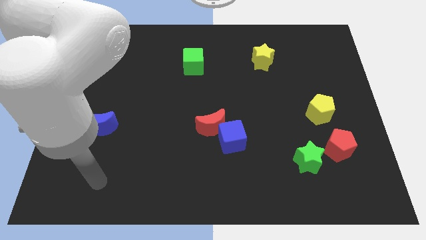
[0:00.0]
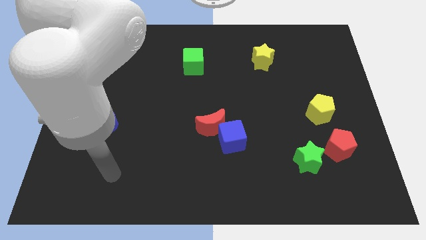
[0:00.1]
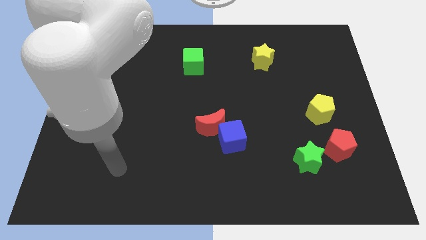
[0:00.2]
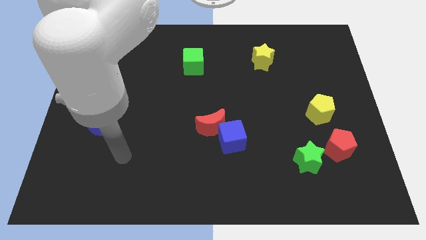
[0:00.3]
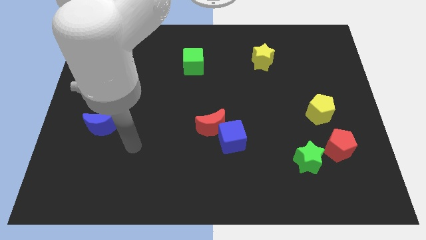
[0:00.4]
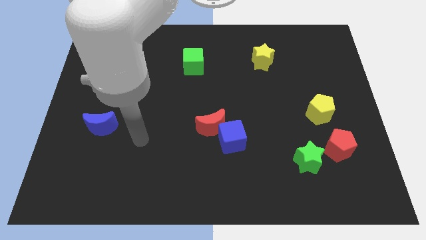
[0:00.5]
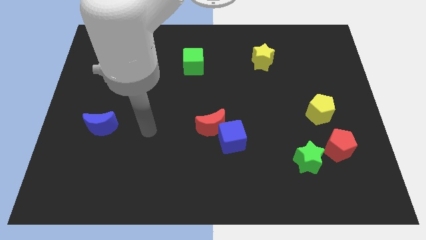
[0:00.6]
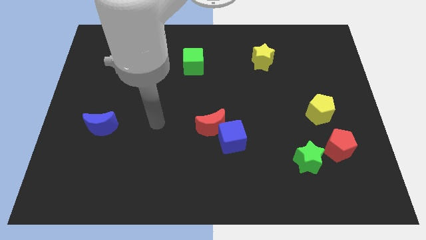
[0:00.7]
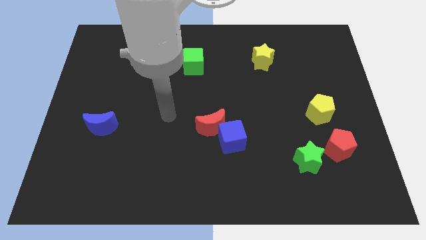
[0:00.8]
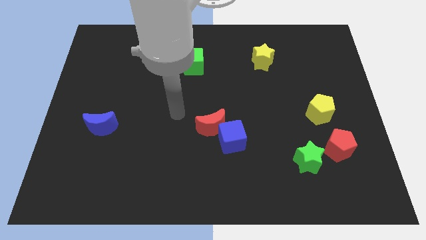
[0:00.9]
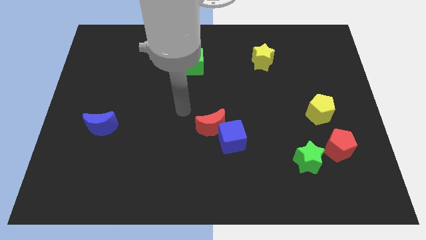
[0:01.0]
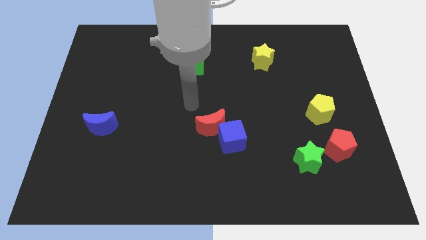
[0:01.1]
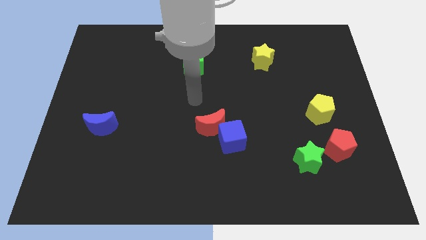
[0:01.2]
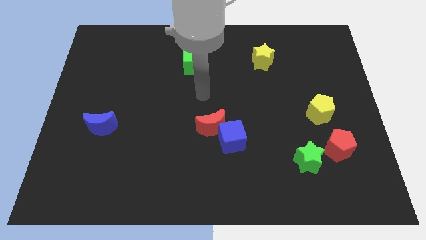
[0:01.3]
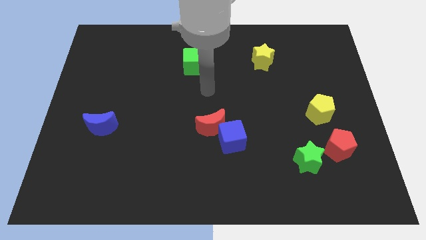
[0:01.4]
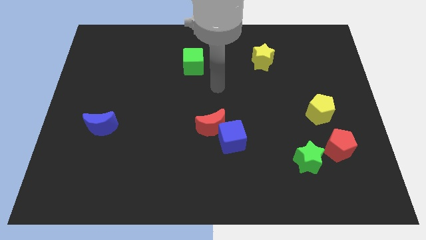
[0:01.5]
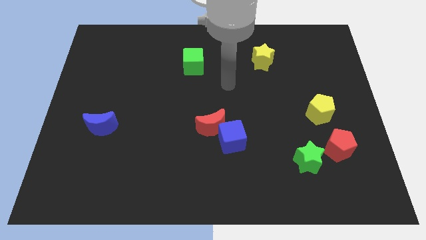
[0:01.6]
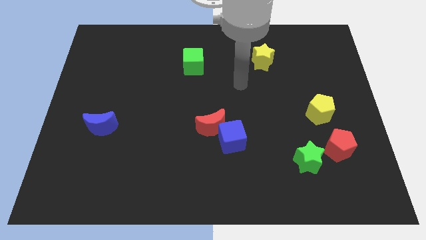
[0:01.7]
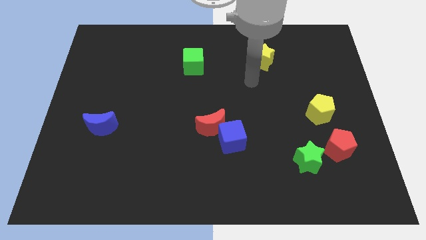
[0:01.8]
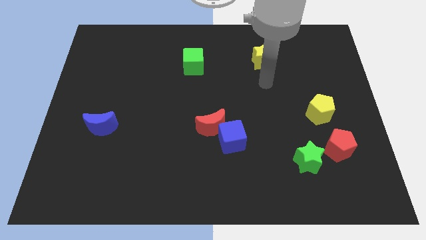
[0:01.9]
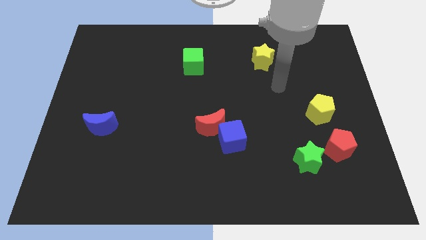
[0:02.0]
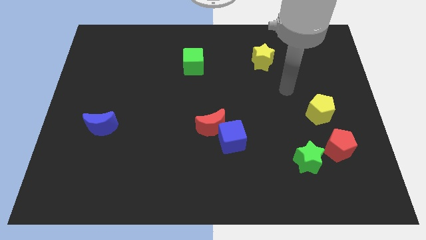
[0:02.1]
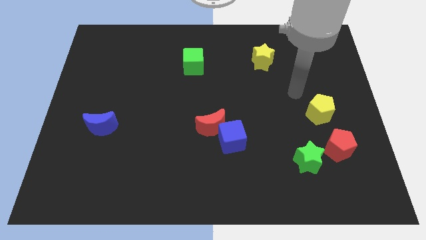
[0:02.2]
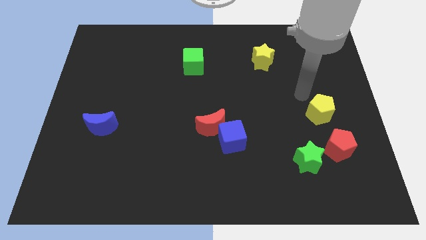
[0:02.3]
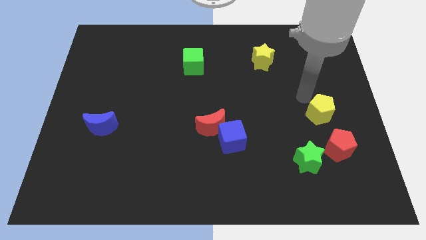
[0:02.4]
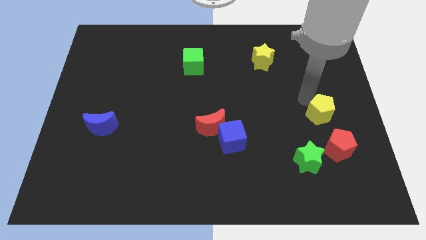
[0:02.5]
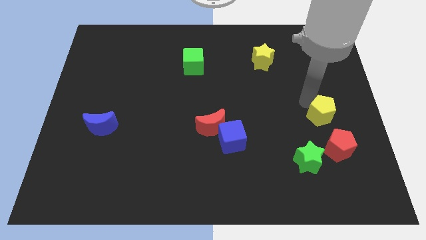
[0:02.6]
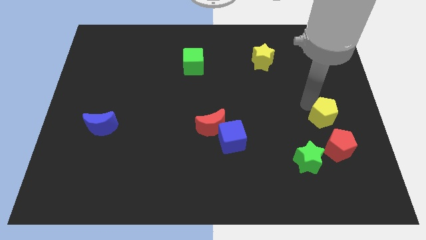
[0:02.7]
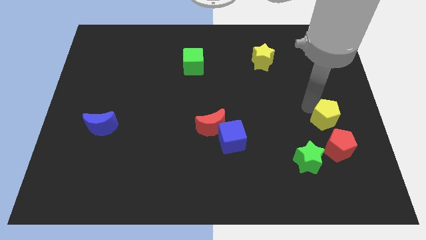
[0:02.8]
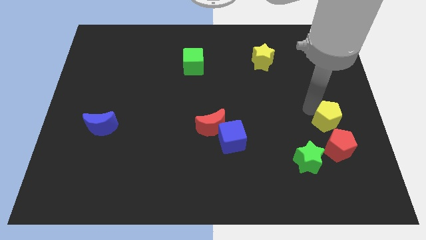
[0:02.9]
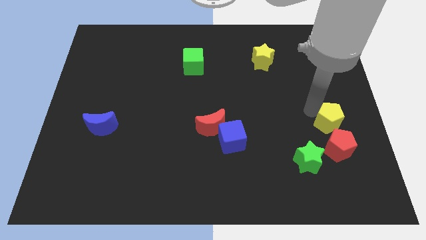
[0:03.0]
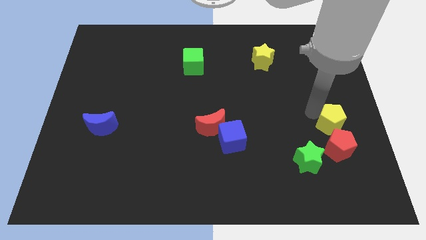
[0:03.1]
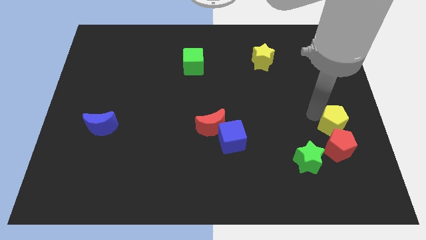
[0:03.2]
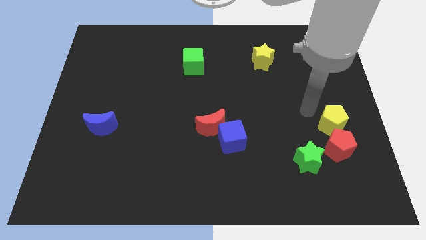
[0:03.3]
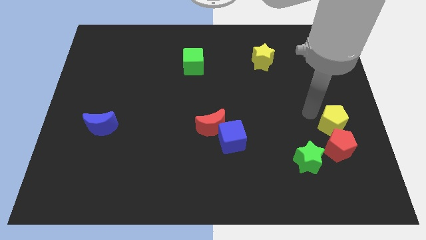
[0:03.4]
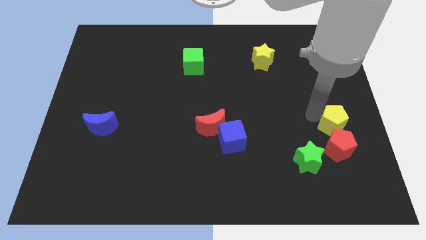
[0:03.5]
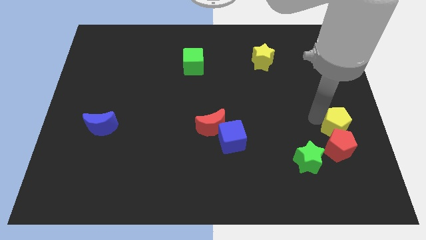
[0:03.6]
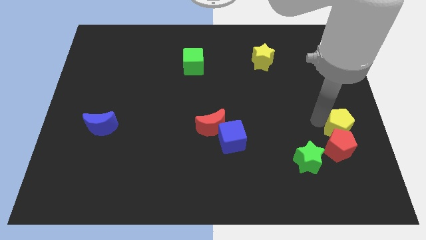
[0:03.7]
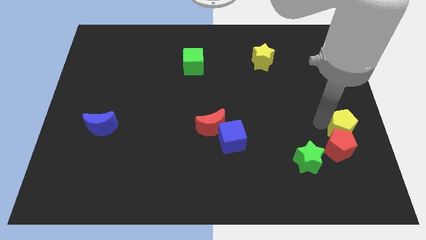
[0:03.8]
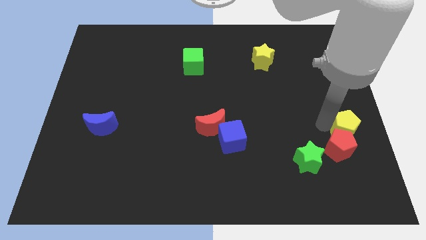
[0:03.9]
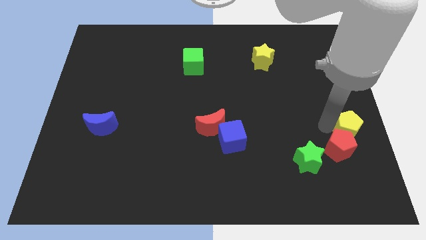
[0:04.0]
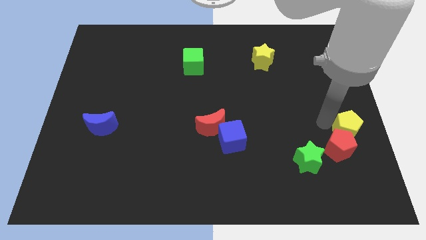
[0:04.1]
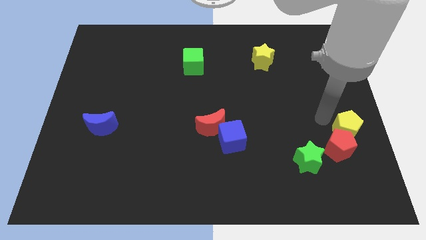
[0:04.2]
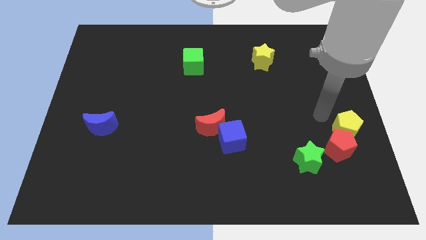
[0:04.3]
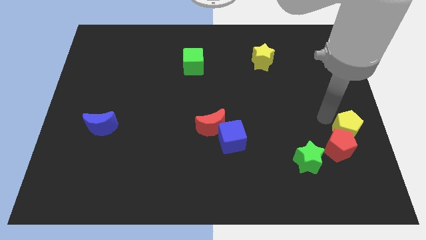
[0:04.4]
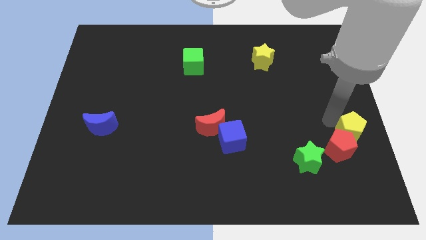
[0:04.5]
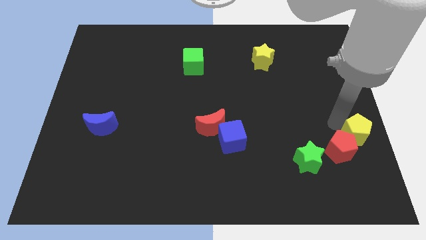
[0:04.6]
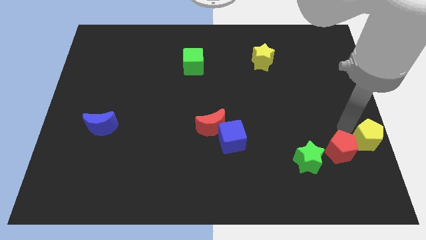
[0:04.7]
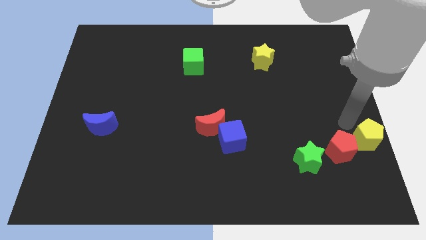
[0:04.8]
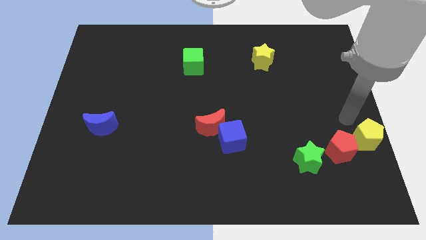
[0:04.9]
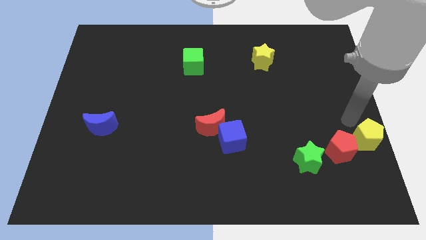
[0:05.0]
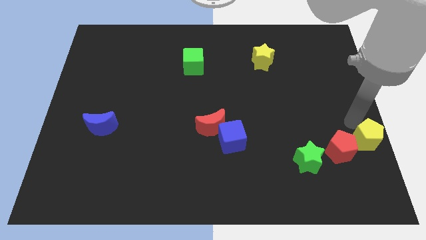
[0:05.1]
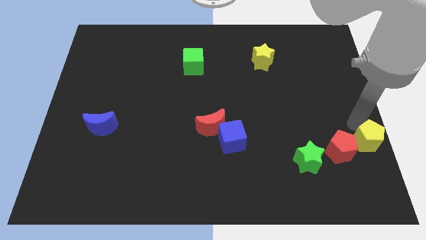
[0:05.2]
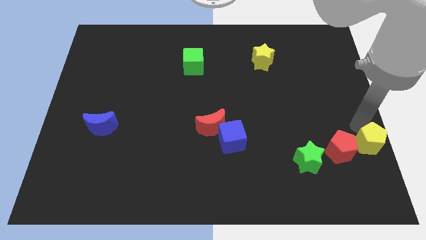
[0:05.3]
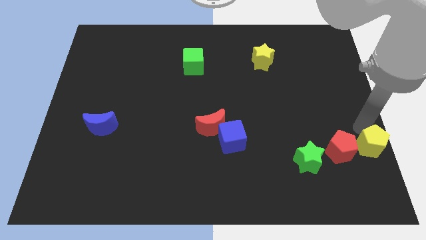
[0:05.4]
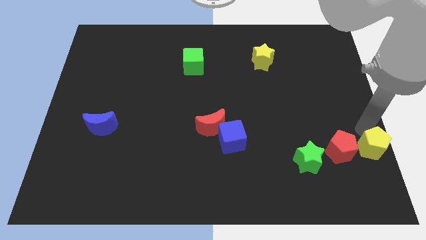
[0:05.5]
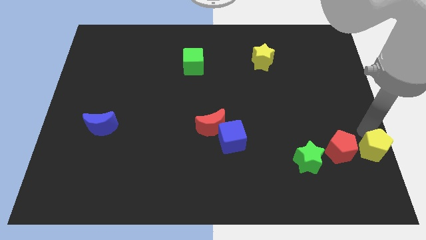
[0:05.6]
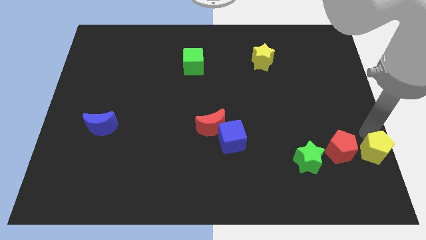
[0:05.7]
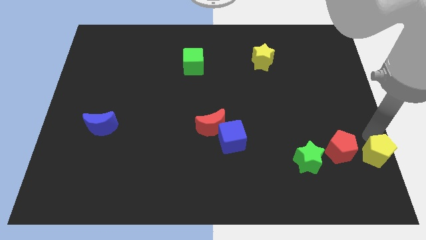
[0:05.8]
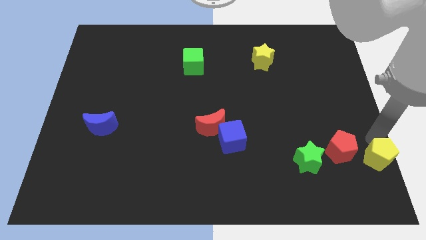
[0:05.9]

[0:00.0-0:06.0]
push the yellow pentagon to the bottom right
